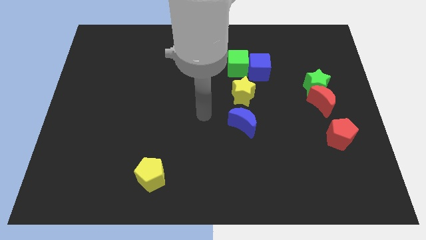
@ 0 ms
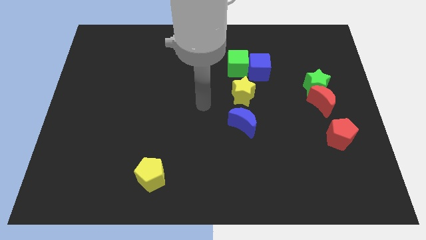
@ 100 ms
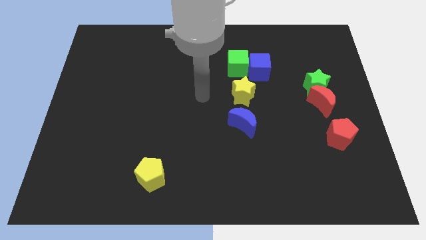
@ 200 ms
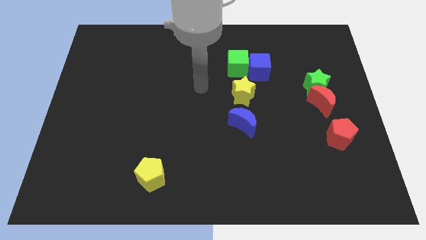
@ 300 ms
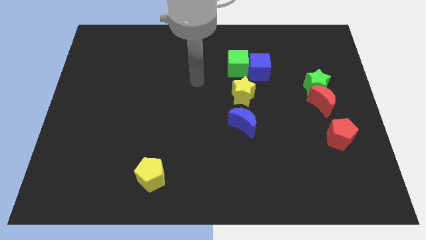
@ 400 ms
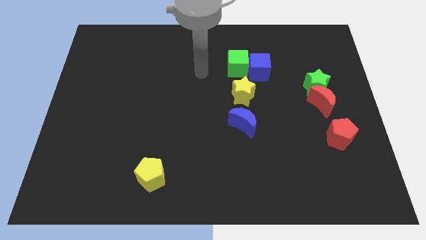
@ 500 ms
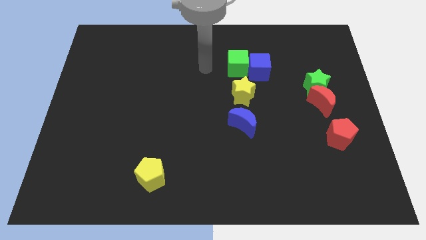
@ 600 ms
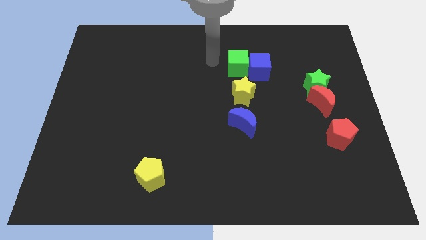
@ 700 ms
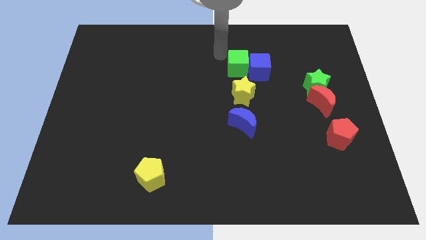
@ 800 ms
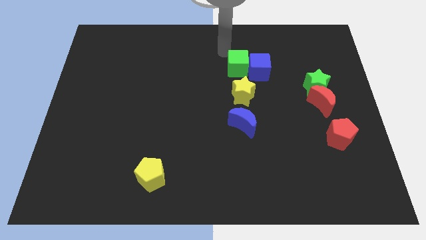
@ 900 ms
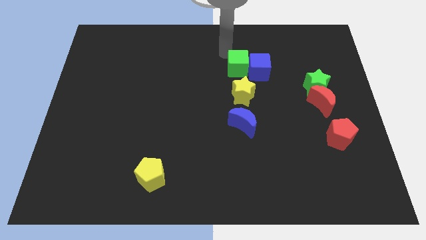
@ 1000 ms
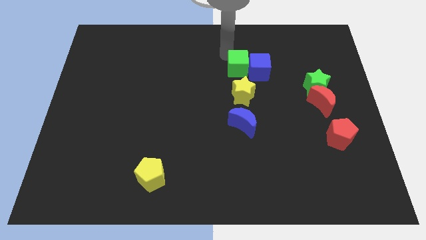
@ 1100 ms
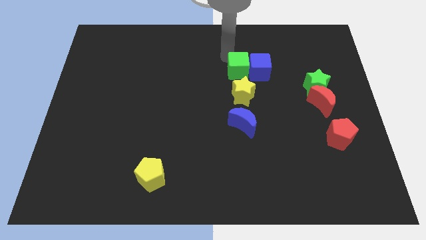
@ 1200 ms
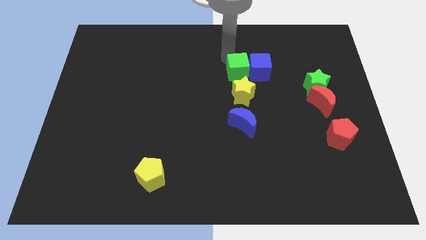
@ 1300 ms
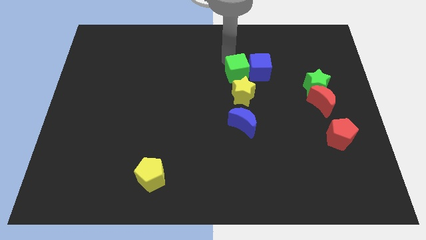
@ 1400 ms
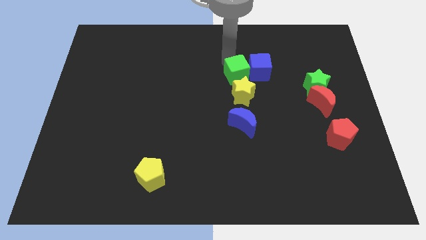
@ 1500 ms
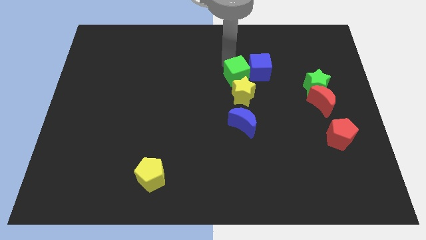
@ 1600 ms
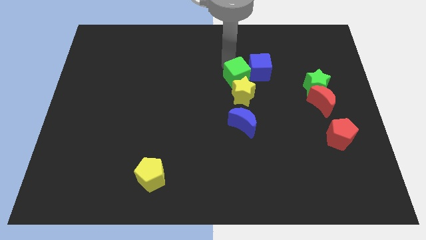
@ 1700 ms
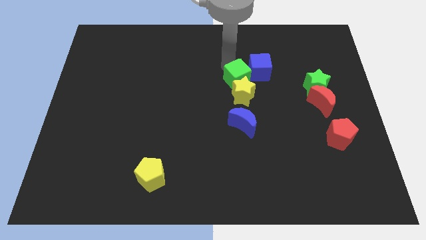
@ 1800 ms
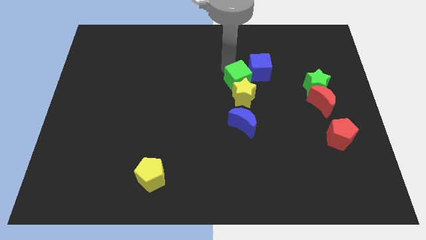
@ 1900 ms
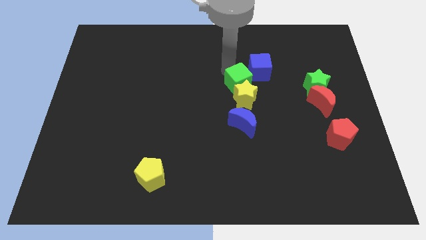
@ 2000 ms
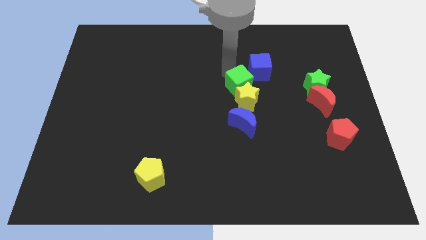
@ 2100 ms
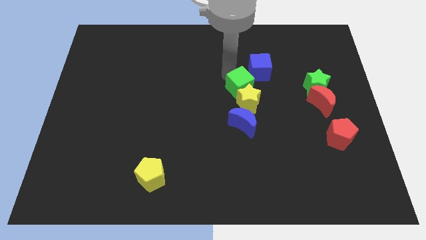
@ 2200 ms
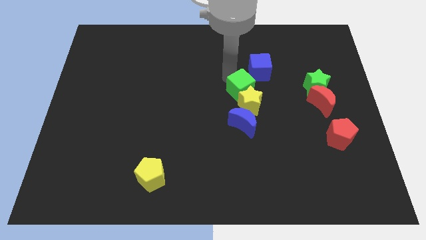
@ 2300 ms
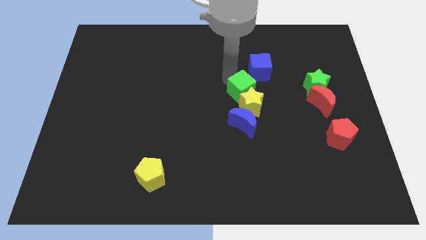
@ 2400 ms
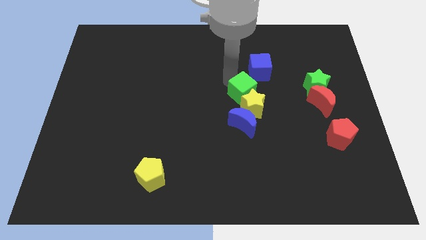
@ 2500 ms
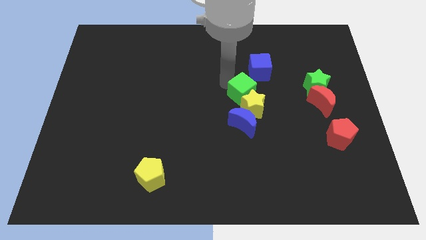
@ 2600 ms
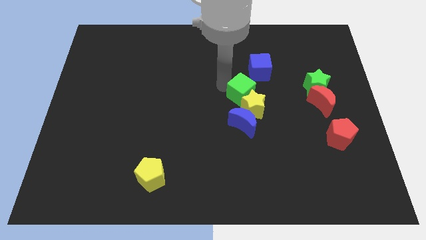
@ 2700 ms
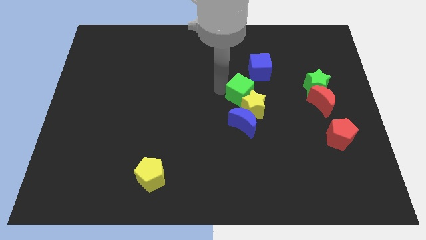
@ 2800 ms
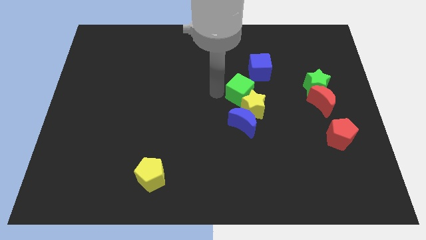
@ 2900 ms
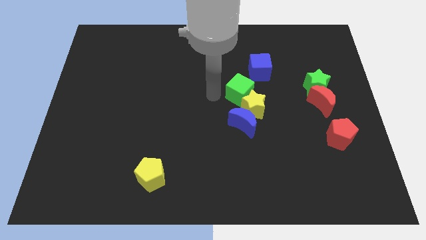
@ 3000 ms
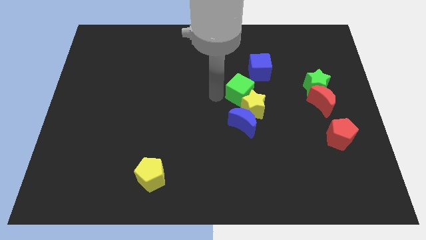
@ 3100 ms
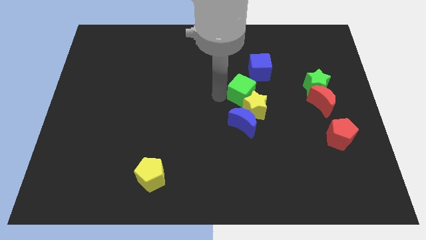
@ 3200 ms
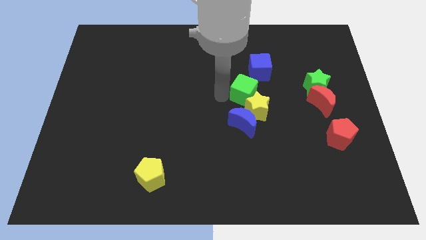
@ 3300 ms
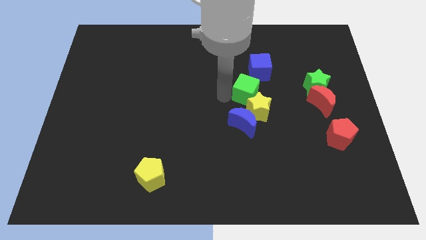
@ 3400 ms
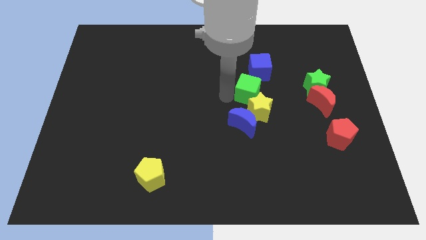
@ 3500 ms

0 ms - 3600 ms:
push the green cube down and to the right diagonally somewhat

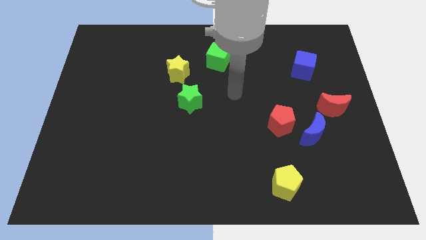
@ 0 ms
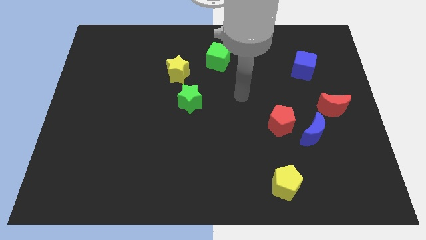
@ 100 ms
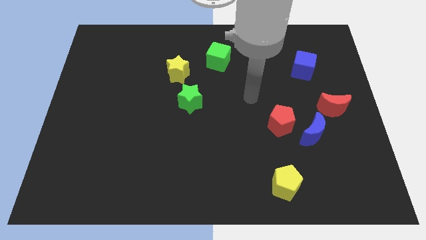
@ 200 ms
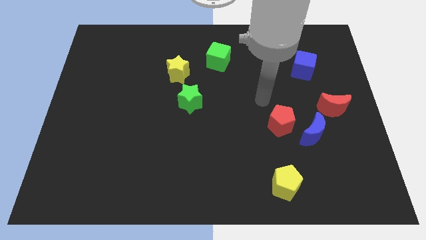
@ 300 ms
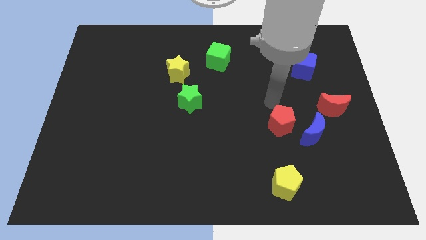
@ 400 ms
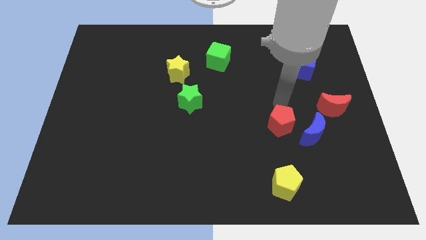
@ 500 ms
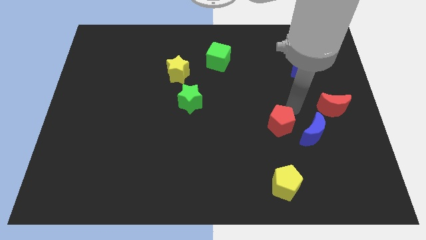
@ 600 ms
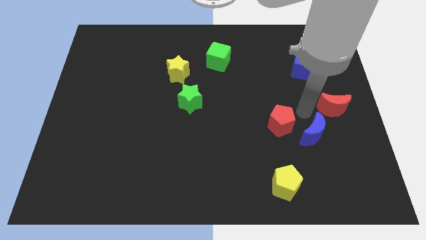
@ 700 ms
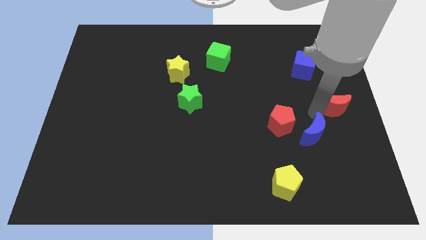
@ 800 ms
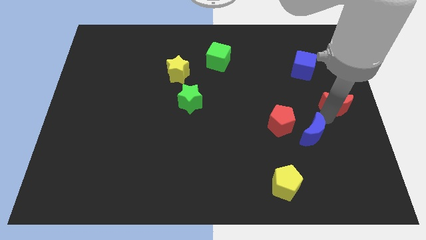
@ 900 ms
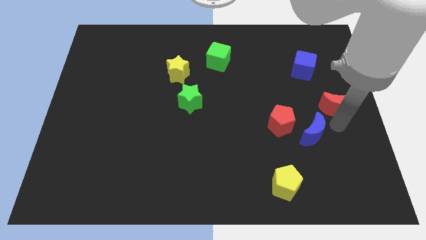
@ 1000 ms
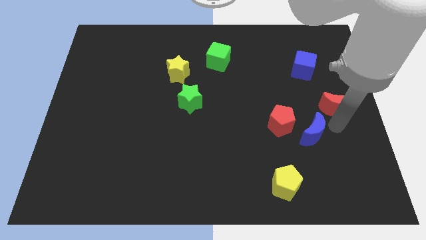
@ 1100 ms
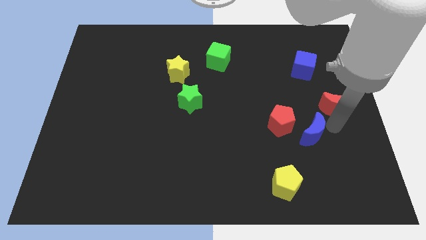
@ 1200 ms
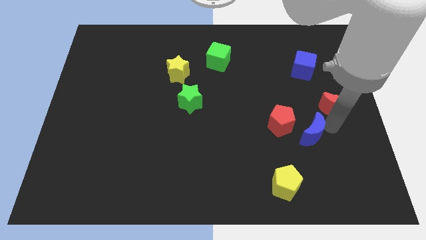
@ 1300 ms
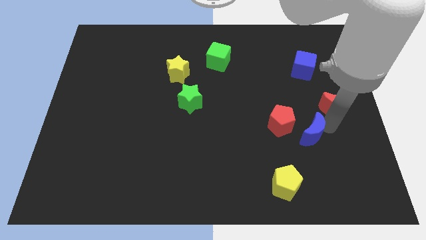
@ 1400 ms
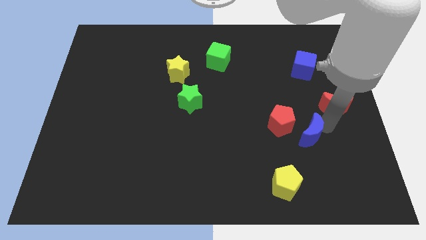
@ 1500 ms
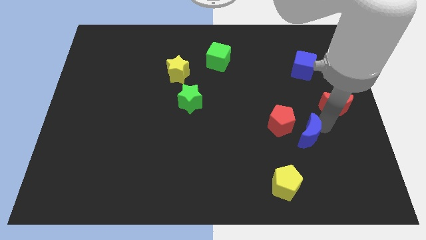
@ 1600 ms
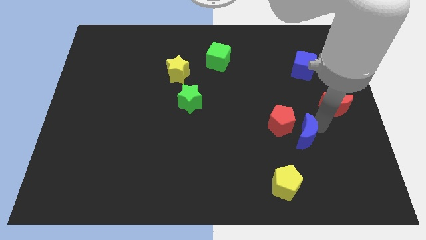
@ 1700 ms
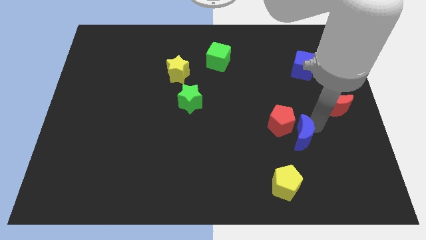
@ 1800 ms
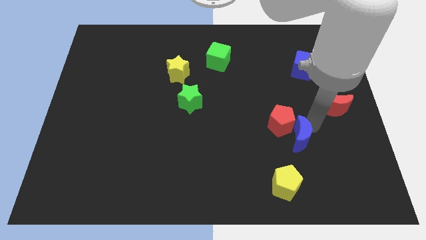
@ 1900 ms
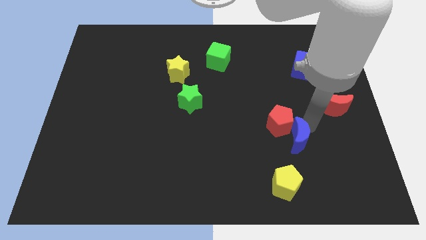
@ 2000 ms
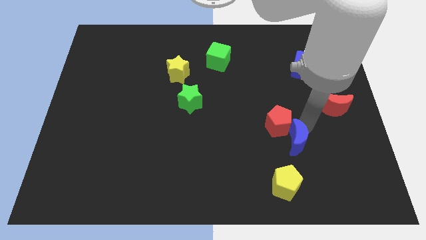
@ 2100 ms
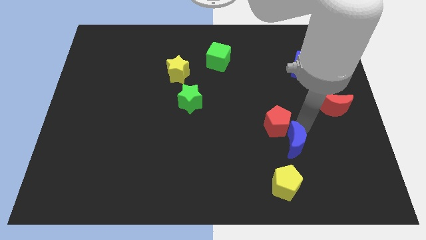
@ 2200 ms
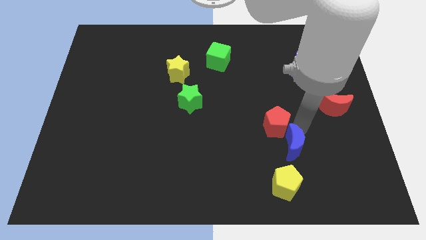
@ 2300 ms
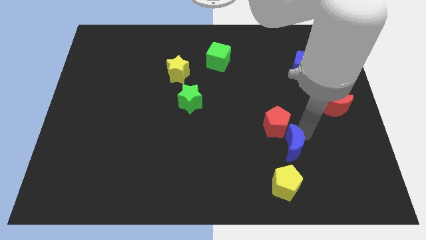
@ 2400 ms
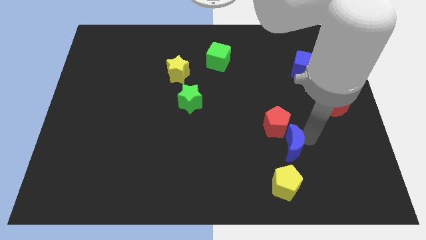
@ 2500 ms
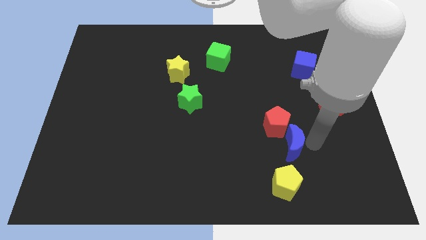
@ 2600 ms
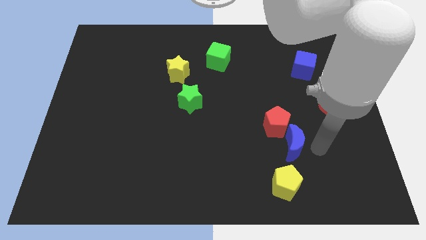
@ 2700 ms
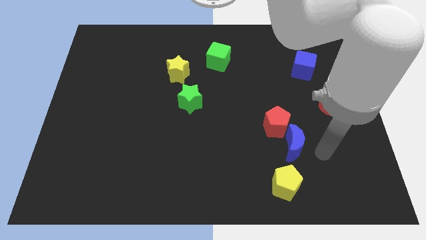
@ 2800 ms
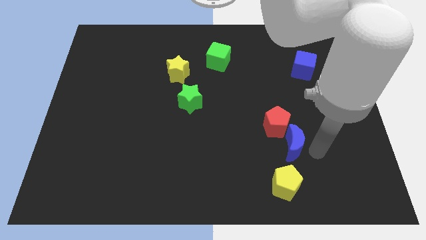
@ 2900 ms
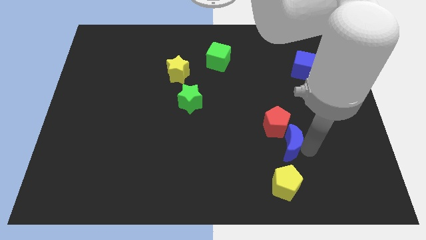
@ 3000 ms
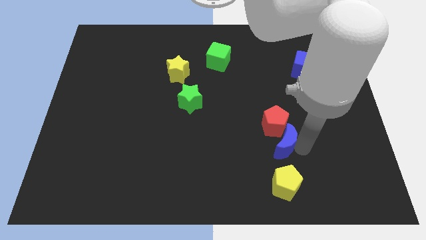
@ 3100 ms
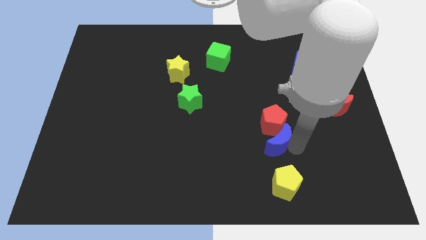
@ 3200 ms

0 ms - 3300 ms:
slightly push the blue moon left

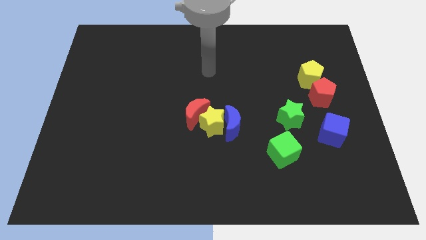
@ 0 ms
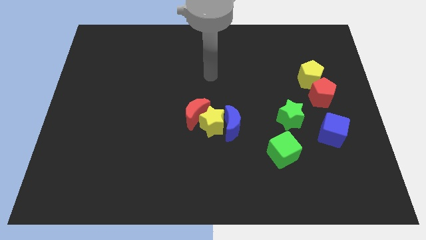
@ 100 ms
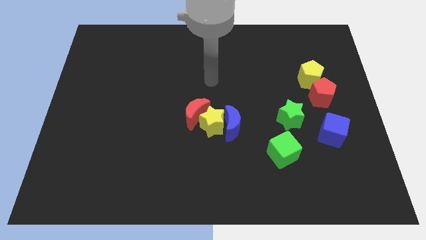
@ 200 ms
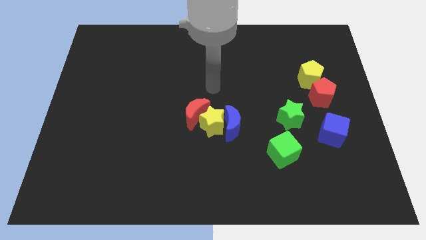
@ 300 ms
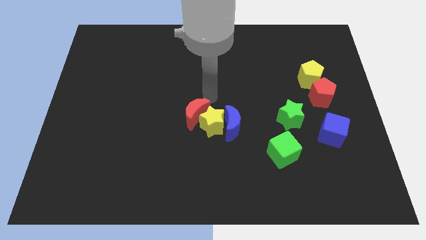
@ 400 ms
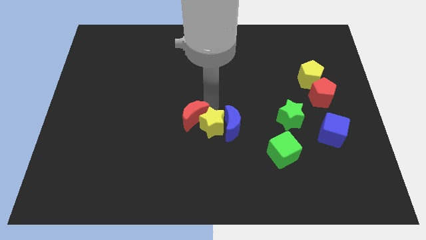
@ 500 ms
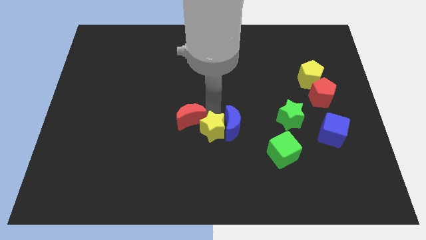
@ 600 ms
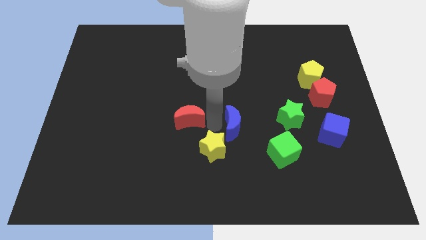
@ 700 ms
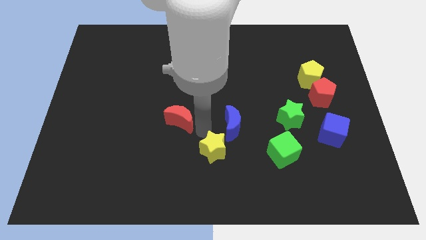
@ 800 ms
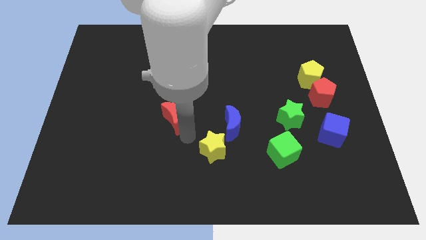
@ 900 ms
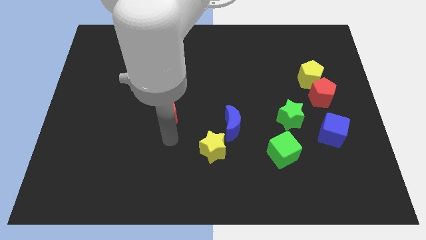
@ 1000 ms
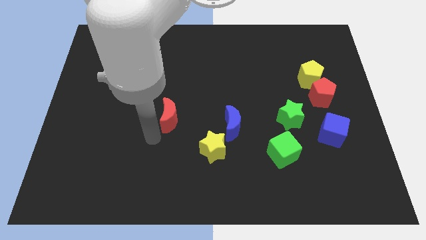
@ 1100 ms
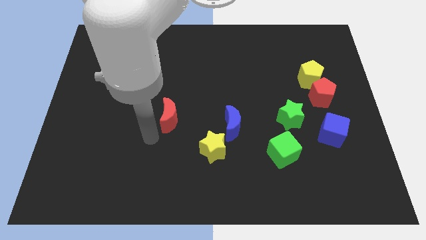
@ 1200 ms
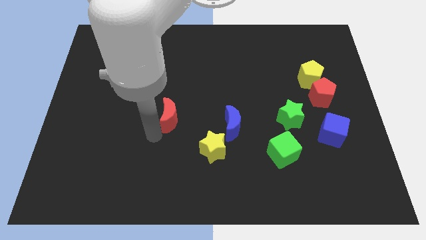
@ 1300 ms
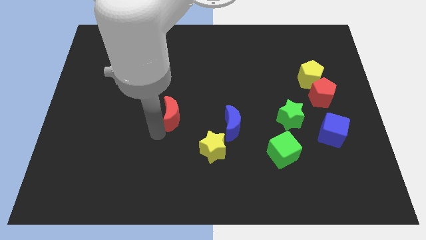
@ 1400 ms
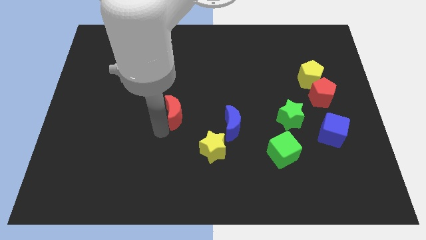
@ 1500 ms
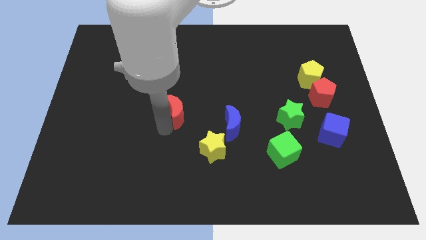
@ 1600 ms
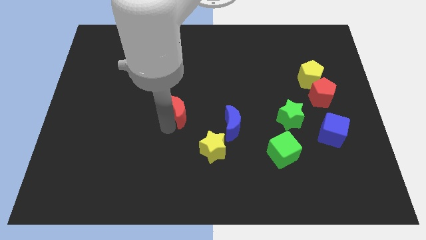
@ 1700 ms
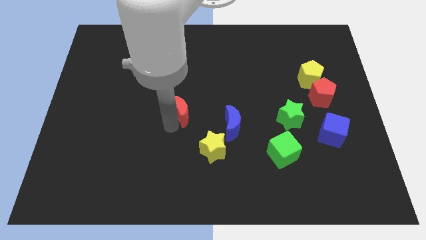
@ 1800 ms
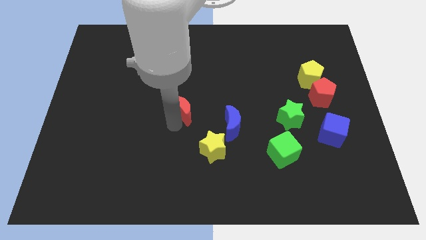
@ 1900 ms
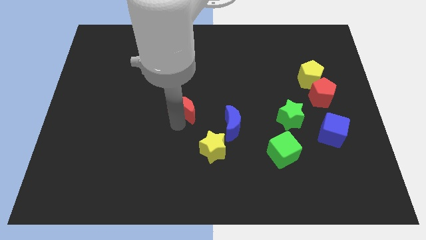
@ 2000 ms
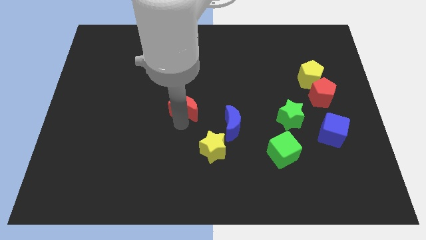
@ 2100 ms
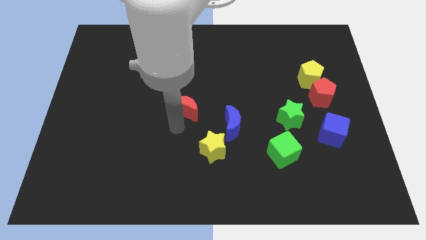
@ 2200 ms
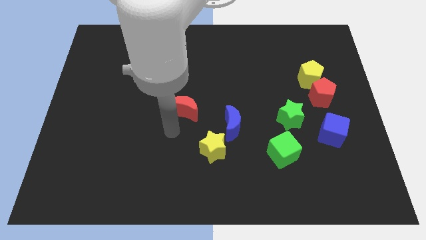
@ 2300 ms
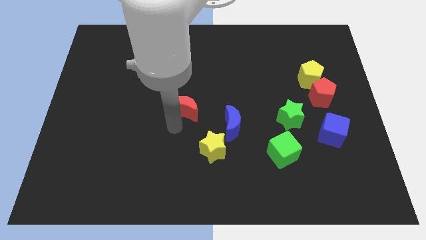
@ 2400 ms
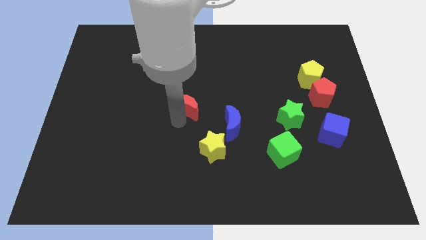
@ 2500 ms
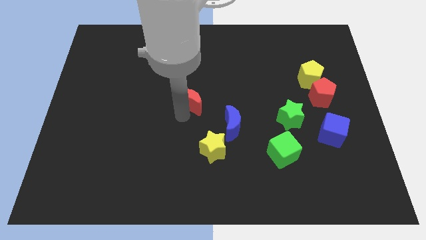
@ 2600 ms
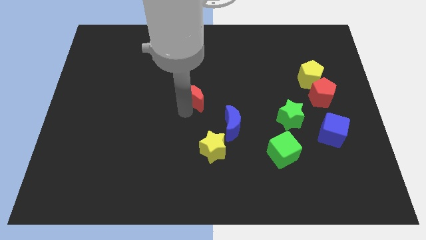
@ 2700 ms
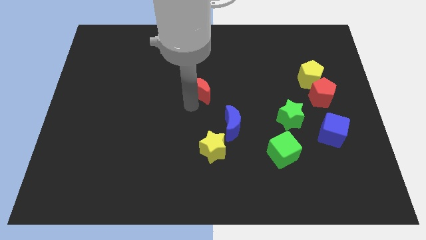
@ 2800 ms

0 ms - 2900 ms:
slightly slide the red moon up
